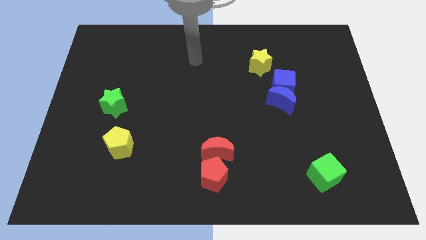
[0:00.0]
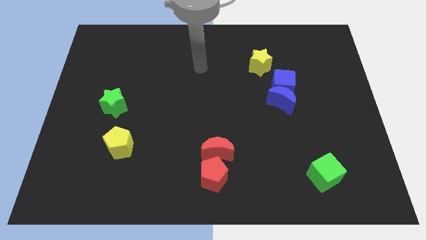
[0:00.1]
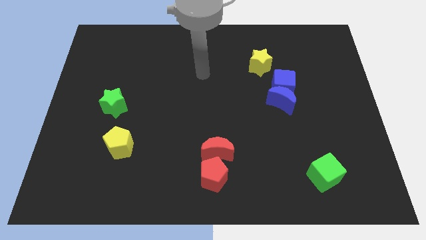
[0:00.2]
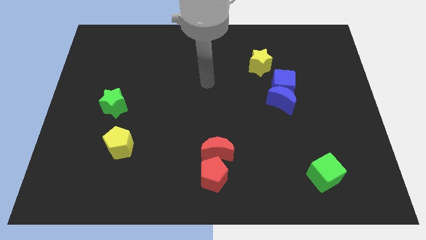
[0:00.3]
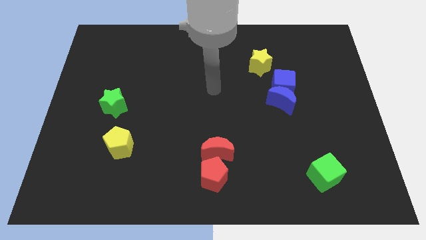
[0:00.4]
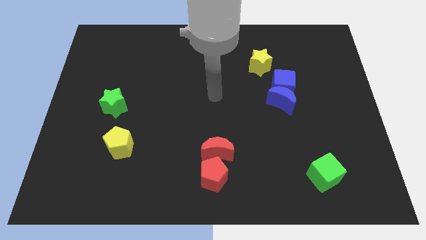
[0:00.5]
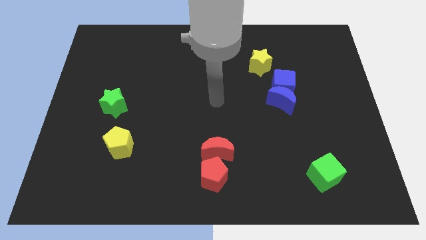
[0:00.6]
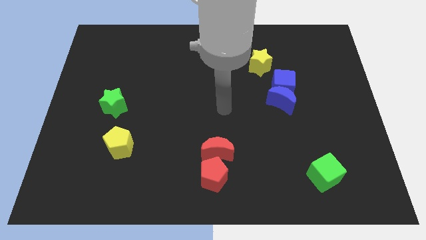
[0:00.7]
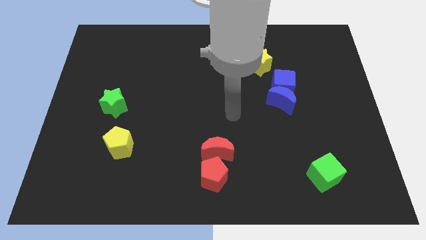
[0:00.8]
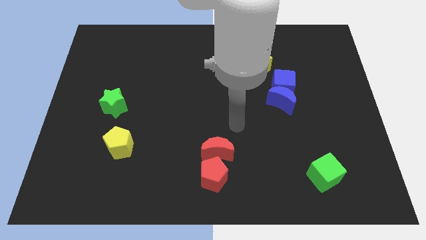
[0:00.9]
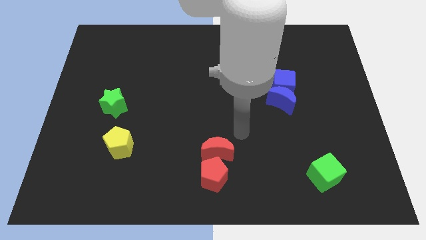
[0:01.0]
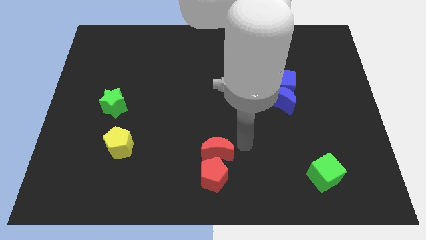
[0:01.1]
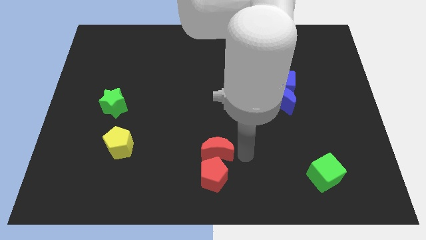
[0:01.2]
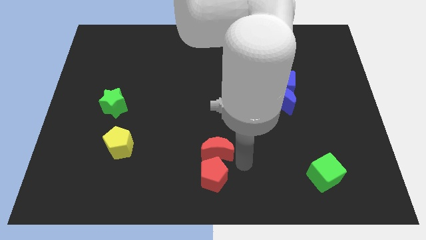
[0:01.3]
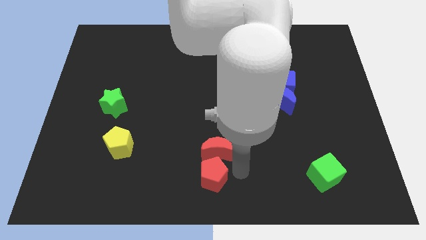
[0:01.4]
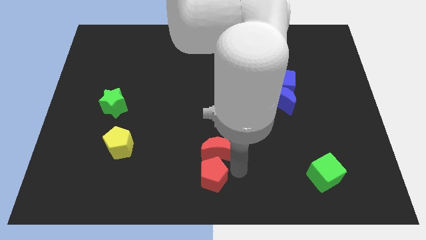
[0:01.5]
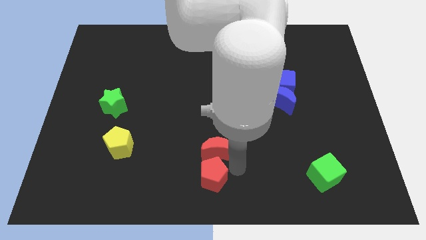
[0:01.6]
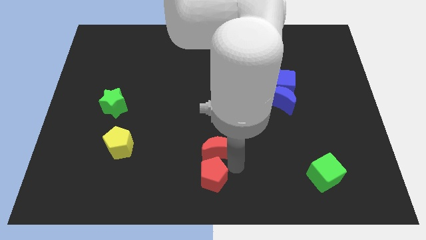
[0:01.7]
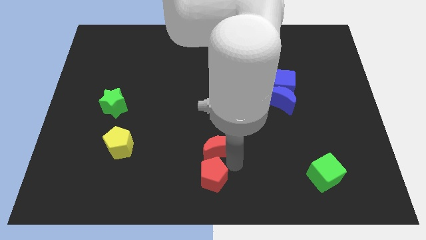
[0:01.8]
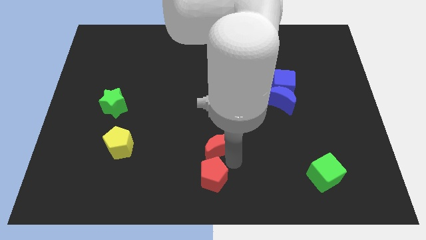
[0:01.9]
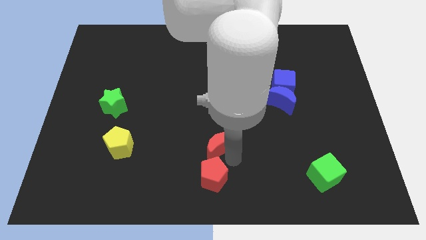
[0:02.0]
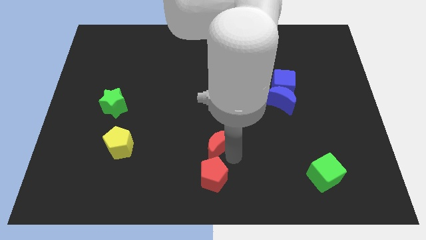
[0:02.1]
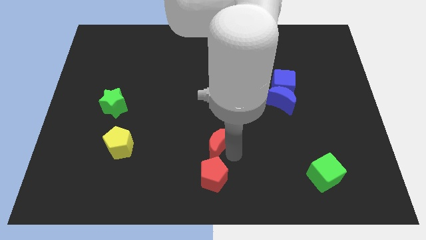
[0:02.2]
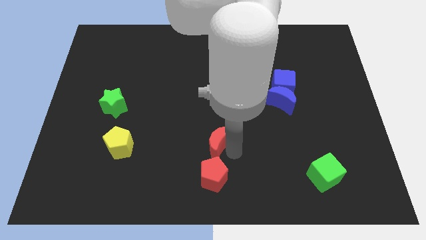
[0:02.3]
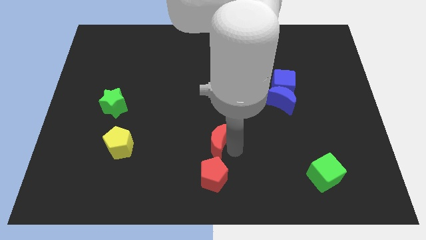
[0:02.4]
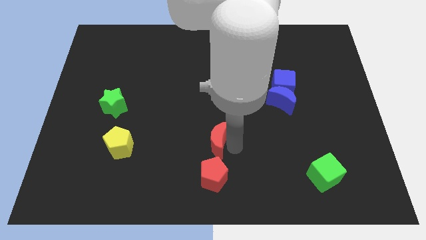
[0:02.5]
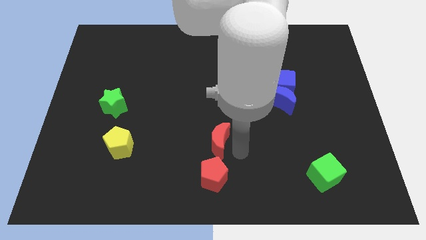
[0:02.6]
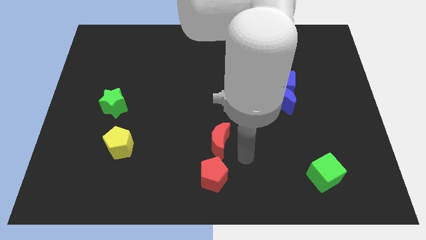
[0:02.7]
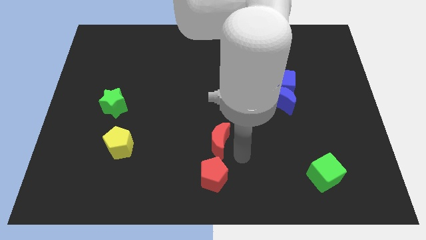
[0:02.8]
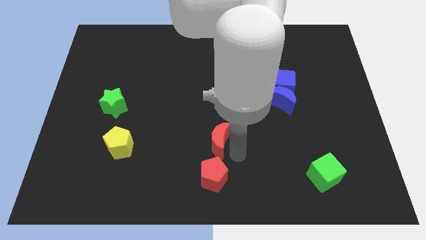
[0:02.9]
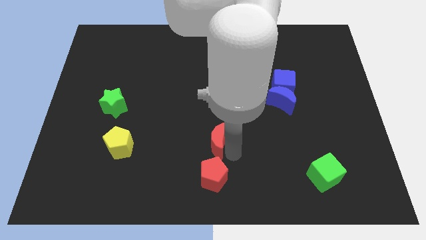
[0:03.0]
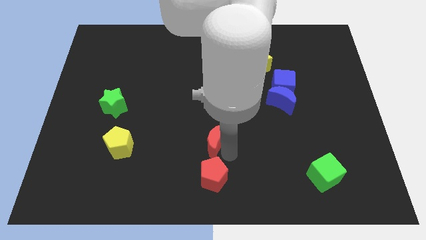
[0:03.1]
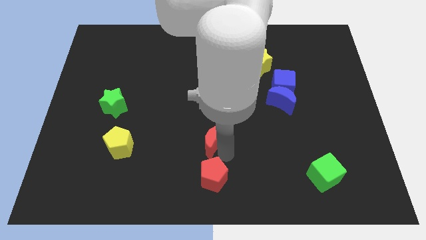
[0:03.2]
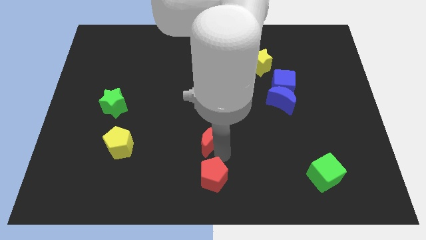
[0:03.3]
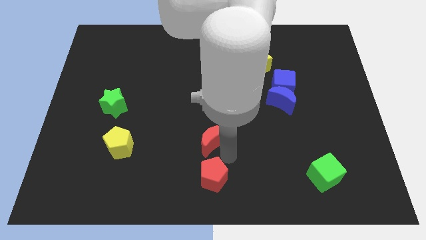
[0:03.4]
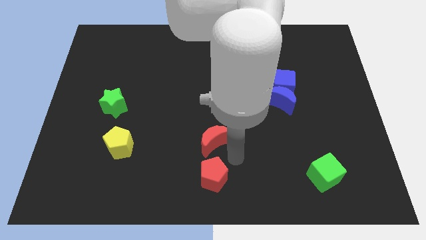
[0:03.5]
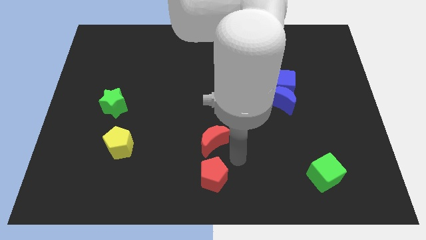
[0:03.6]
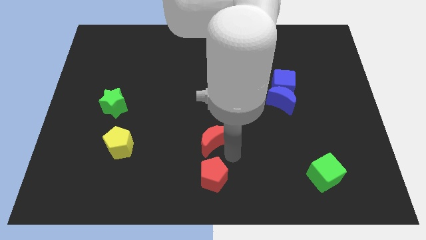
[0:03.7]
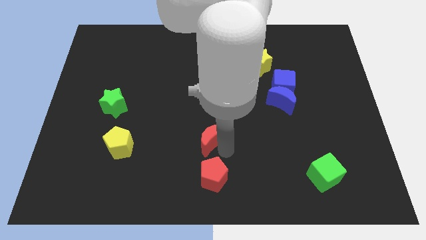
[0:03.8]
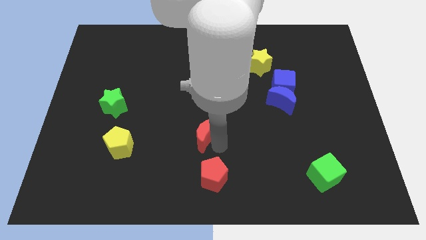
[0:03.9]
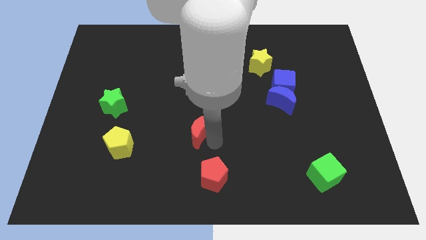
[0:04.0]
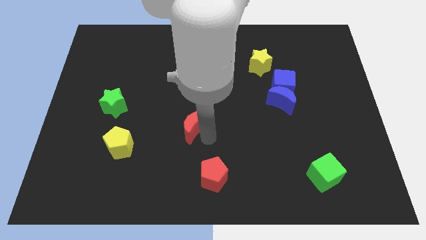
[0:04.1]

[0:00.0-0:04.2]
slightly move the red moon up and to the left

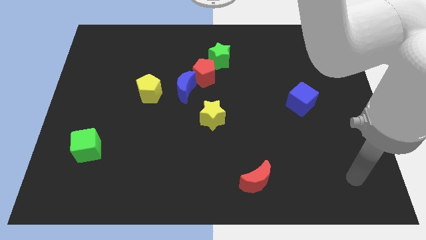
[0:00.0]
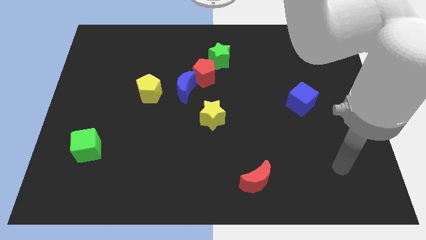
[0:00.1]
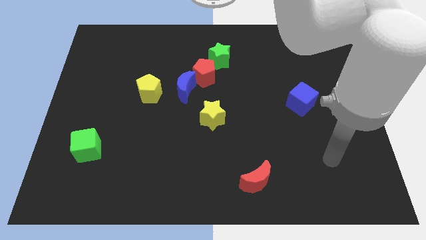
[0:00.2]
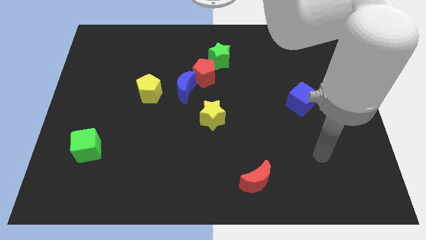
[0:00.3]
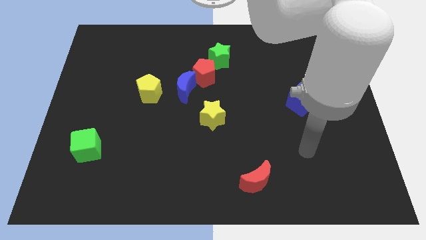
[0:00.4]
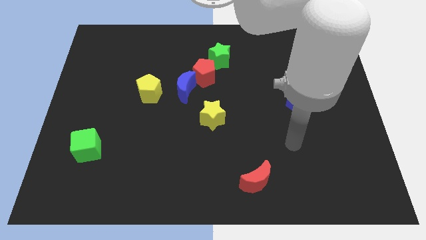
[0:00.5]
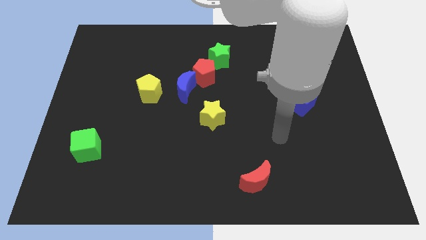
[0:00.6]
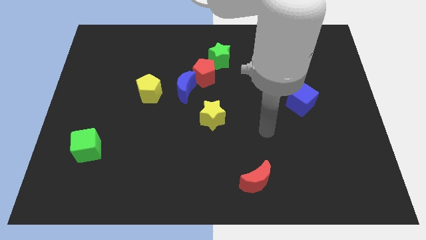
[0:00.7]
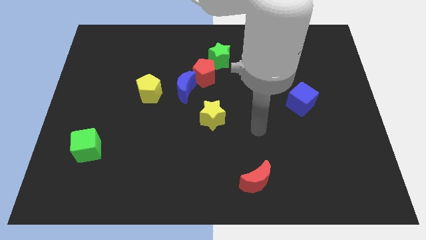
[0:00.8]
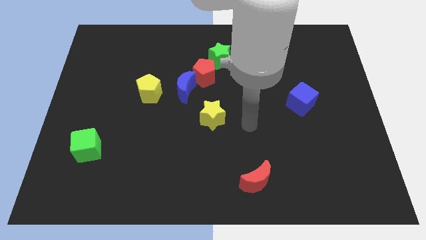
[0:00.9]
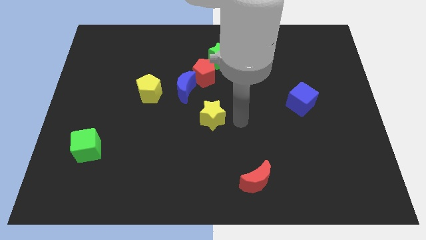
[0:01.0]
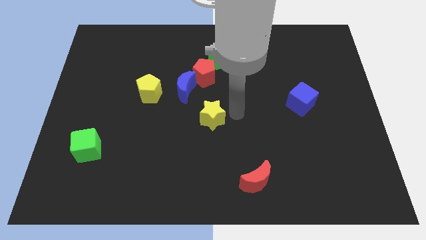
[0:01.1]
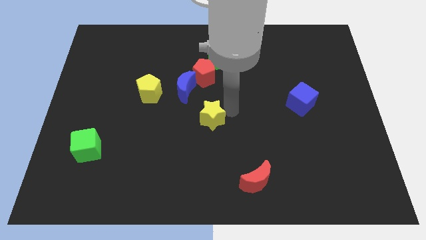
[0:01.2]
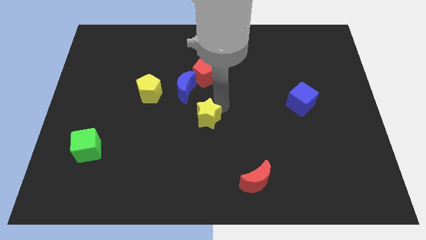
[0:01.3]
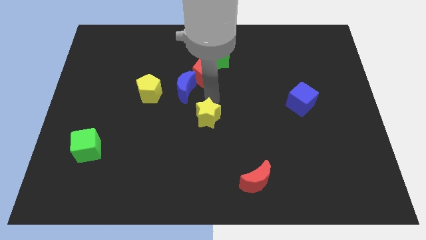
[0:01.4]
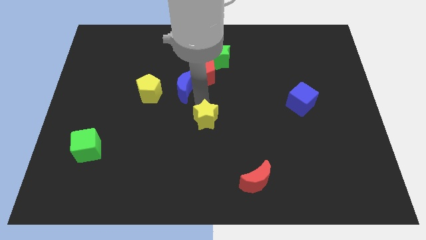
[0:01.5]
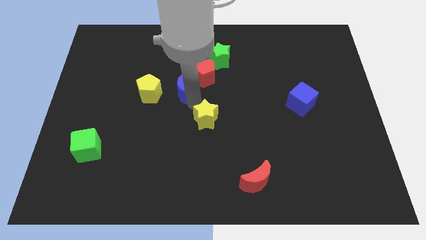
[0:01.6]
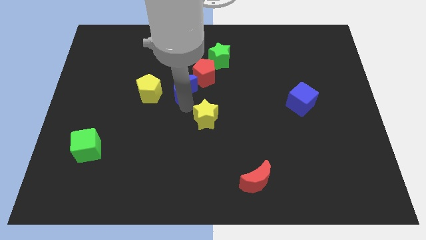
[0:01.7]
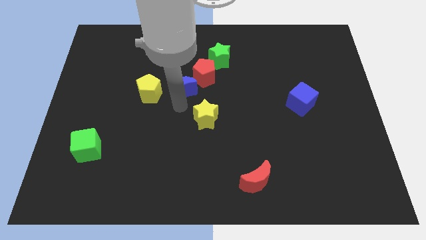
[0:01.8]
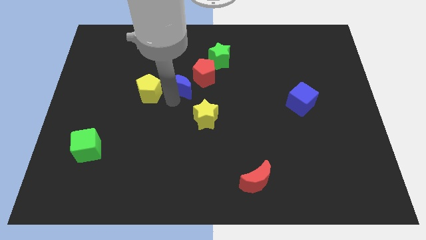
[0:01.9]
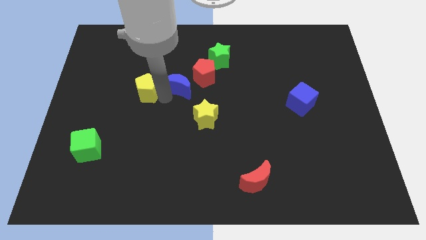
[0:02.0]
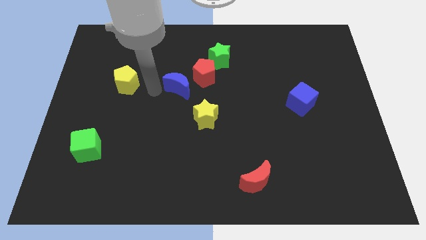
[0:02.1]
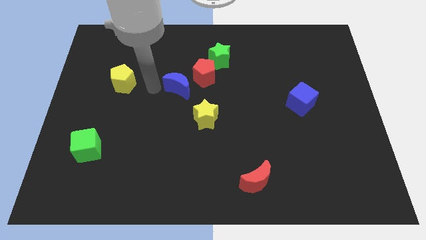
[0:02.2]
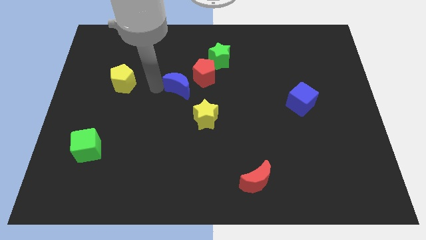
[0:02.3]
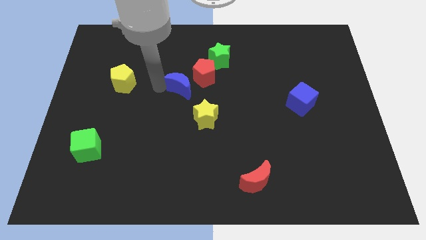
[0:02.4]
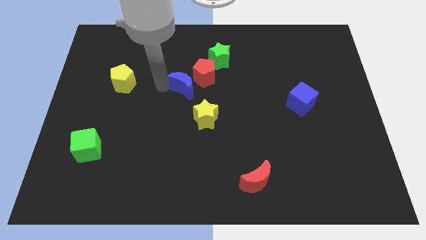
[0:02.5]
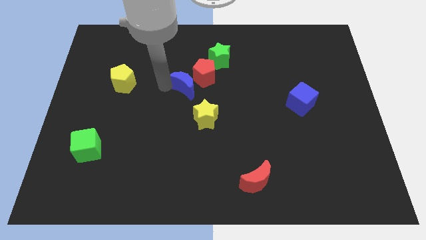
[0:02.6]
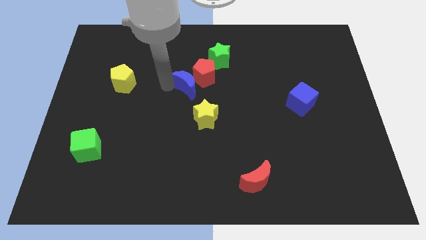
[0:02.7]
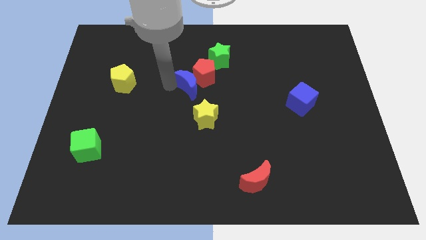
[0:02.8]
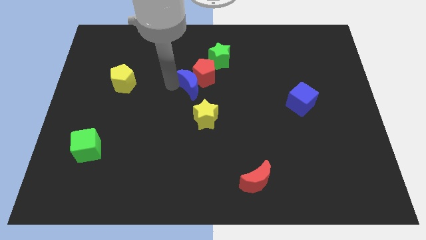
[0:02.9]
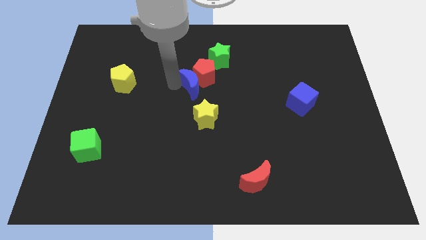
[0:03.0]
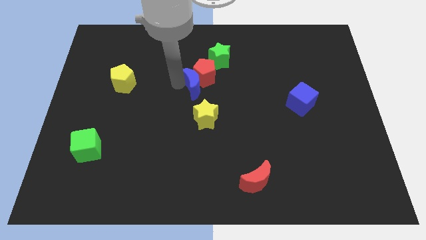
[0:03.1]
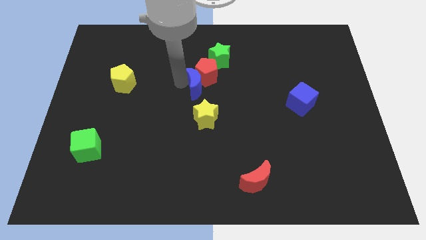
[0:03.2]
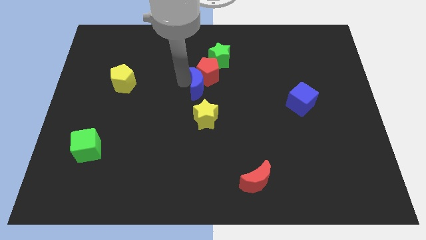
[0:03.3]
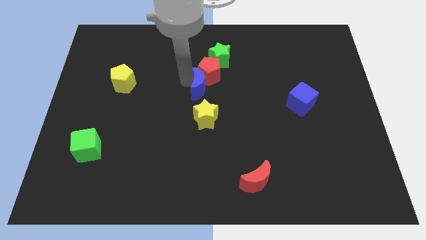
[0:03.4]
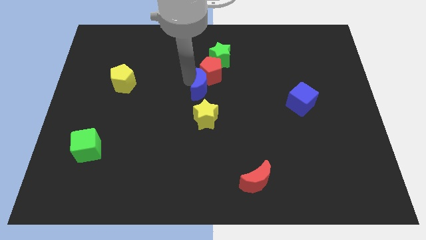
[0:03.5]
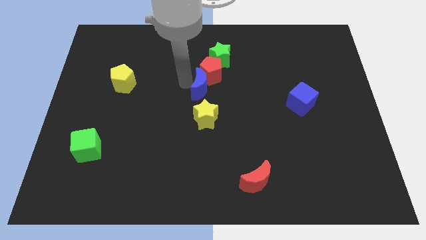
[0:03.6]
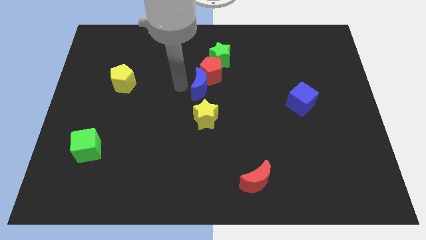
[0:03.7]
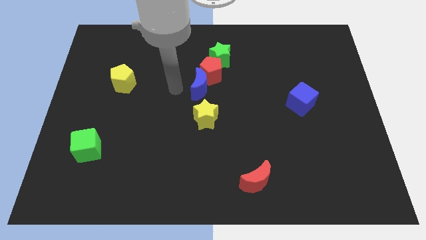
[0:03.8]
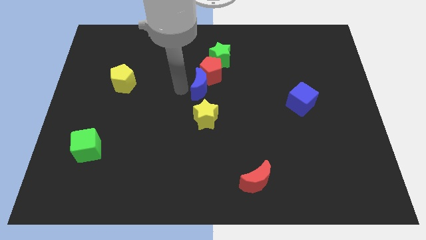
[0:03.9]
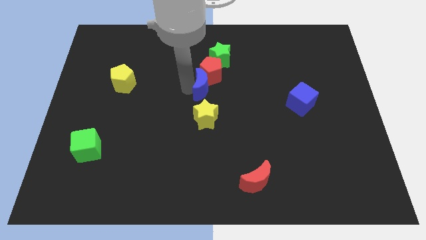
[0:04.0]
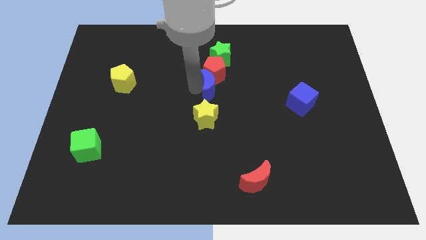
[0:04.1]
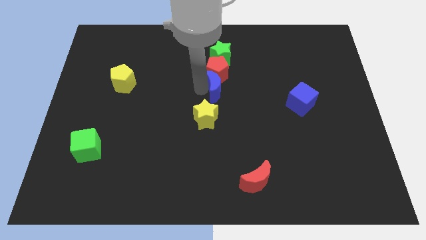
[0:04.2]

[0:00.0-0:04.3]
slightly slide the blue moon to the right
